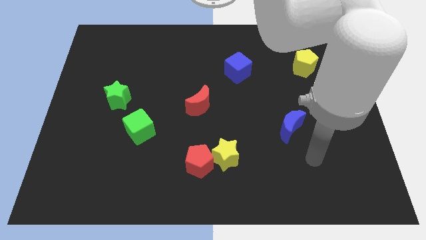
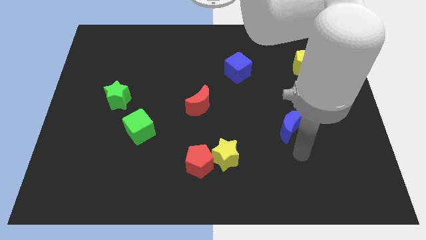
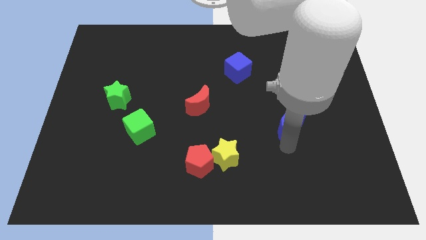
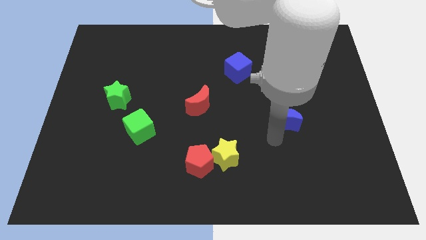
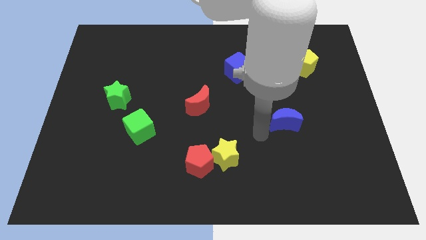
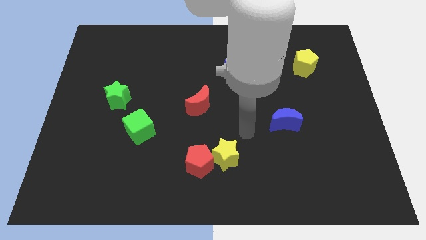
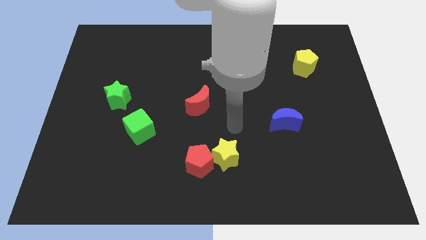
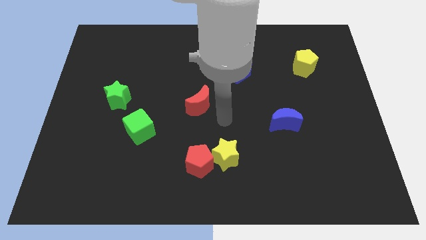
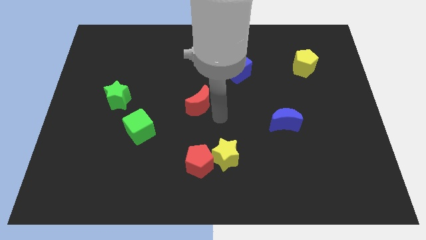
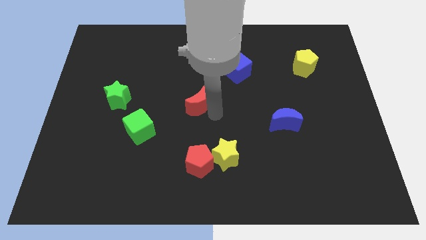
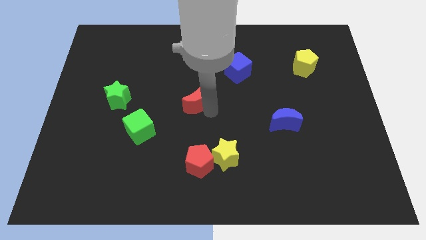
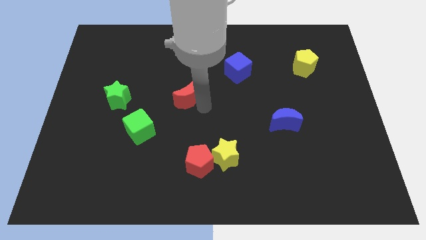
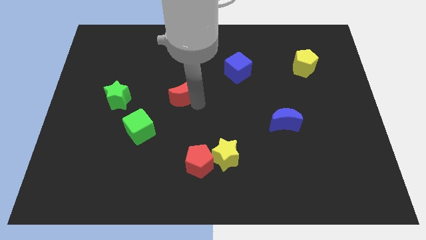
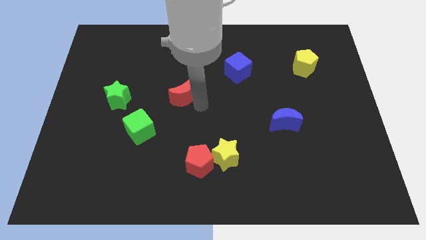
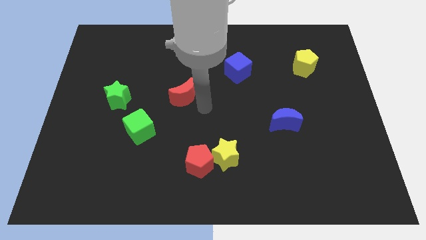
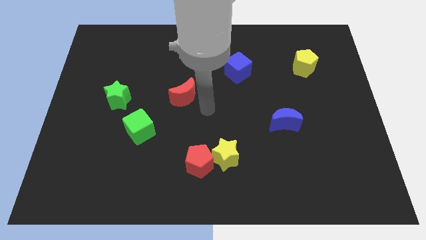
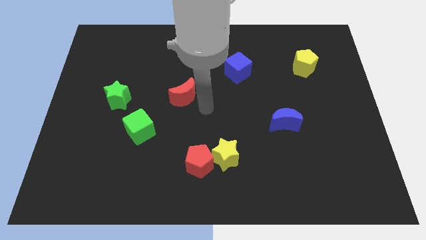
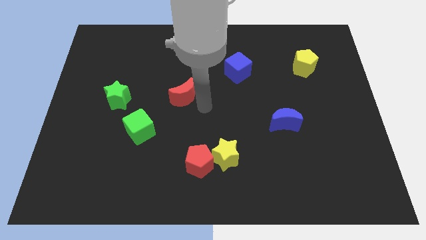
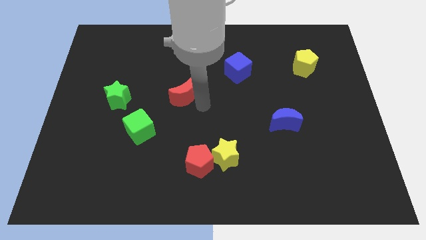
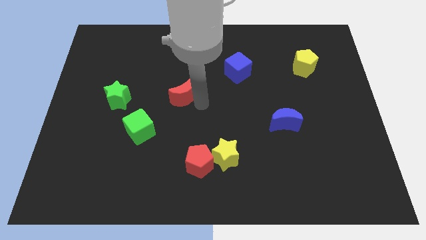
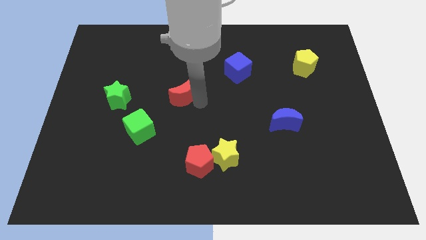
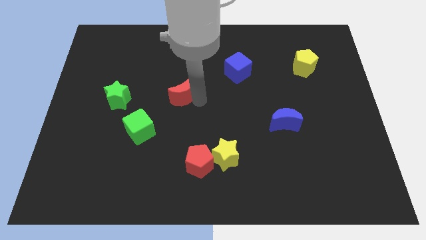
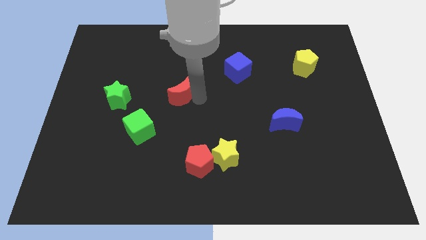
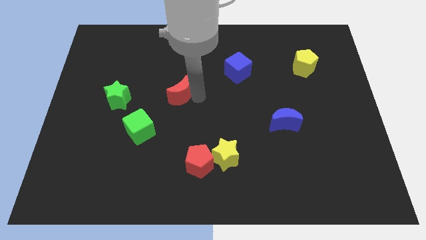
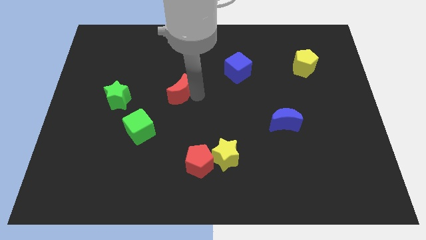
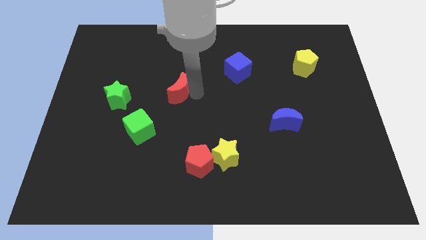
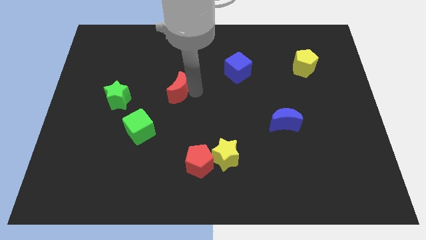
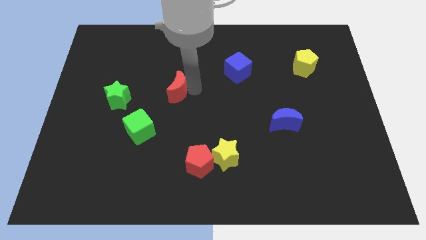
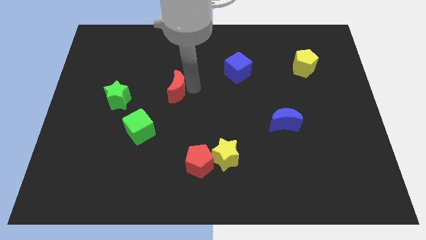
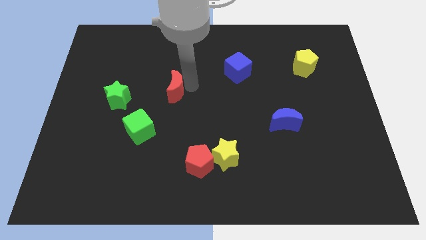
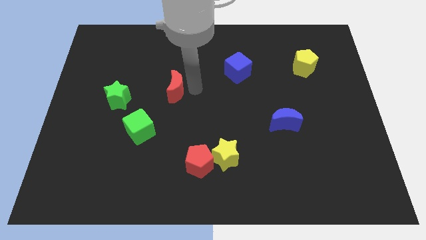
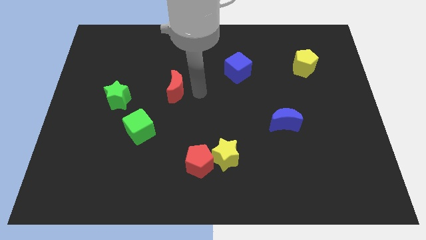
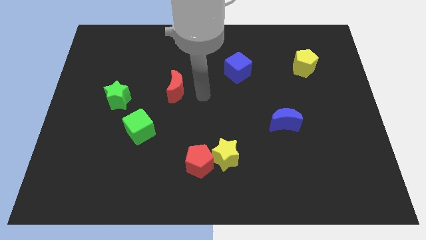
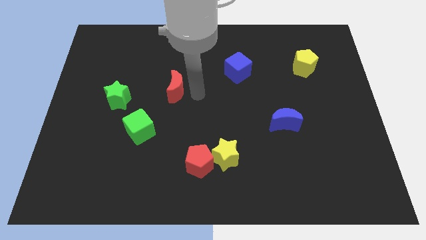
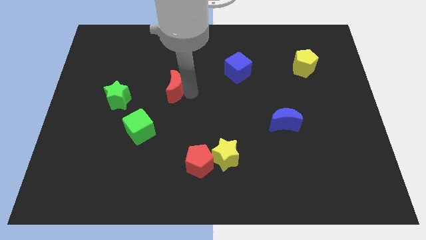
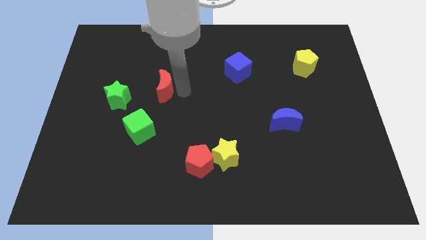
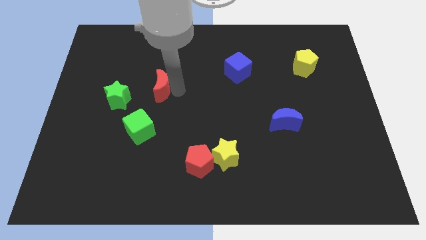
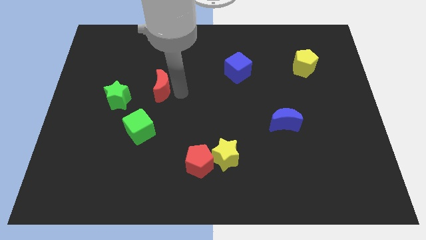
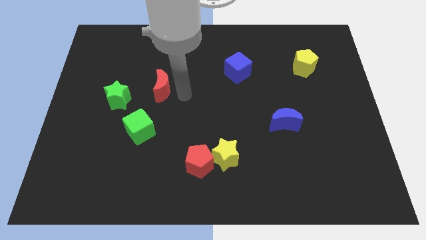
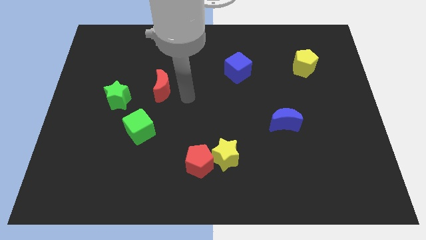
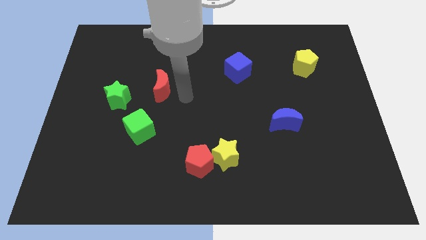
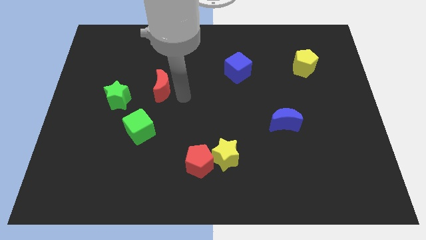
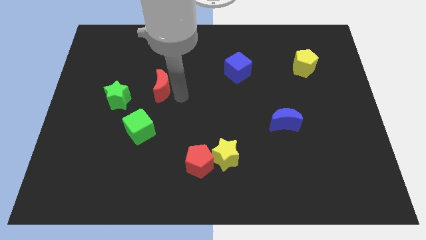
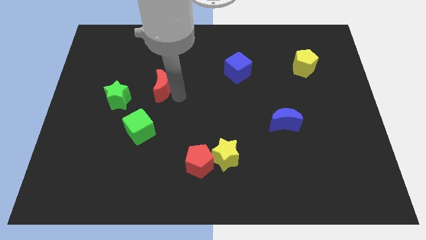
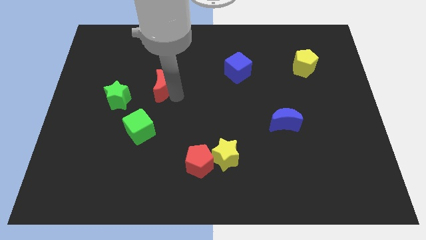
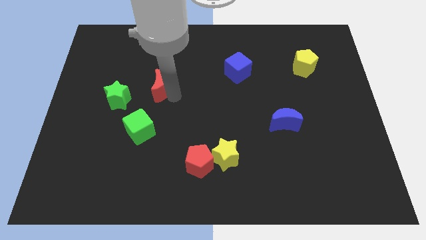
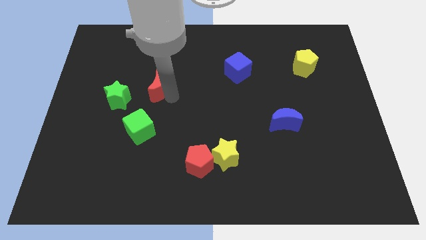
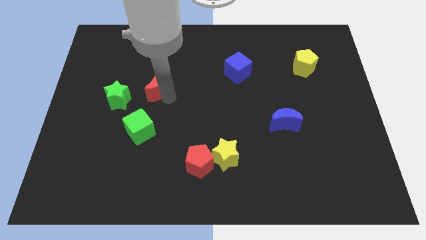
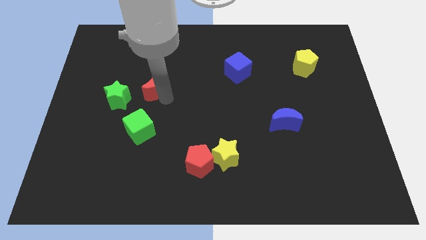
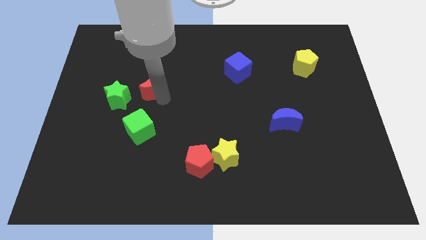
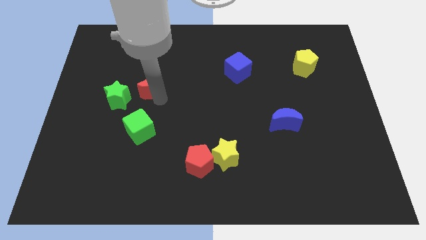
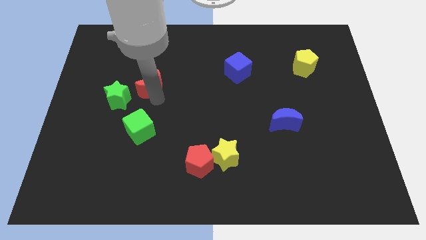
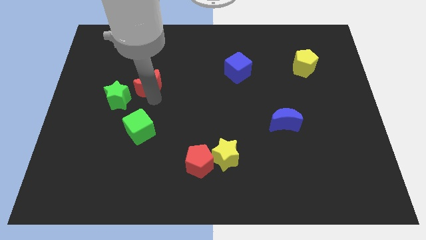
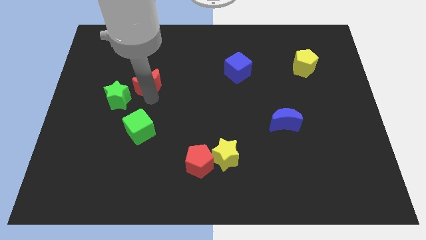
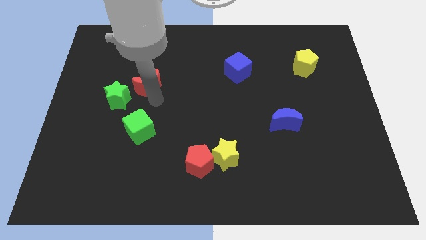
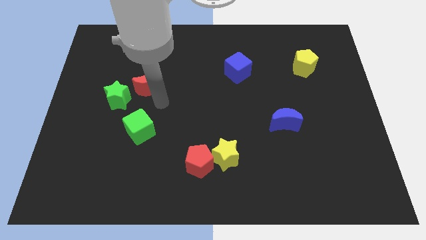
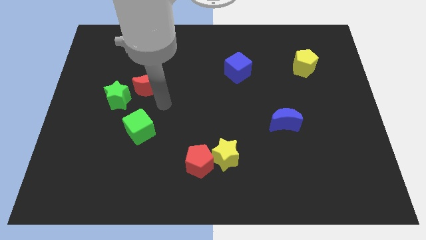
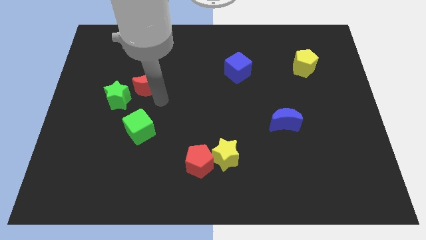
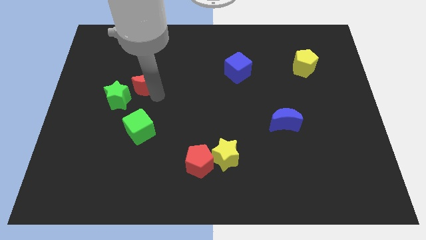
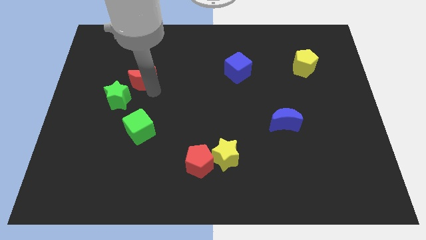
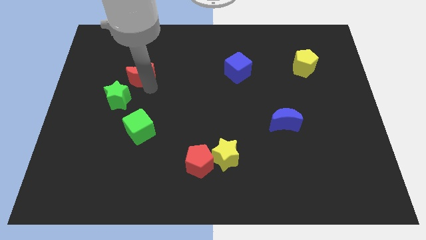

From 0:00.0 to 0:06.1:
push the red moon to the top of the green star

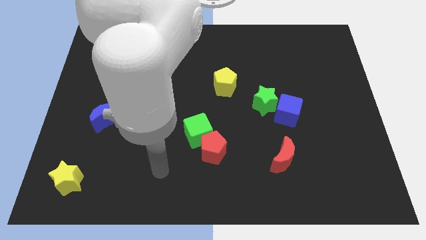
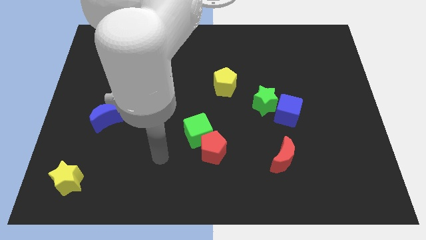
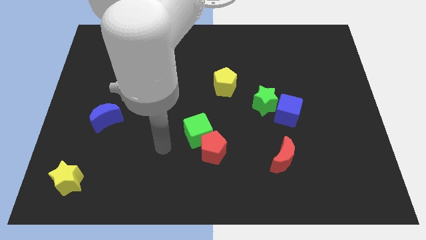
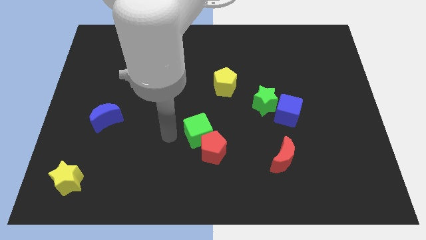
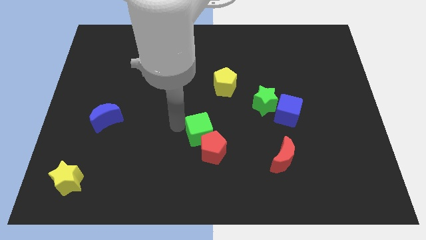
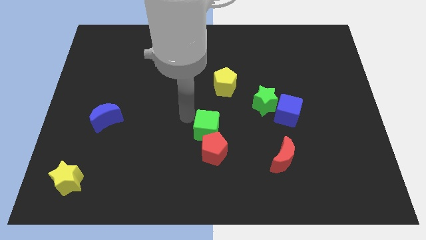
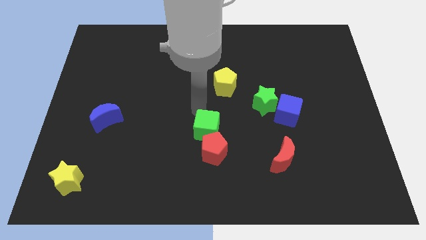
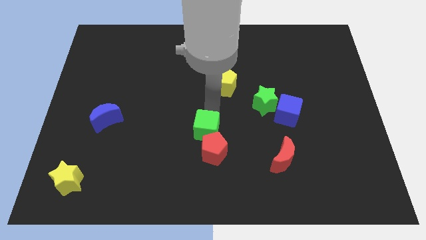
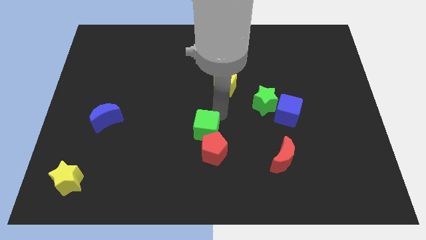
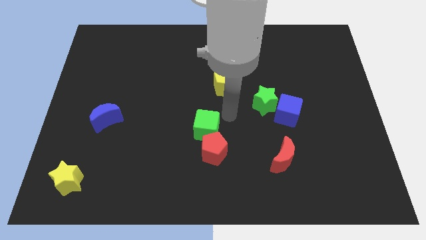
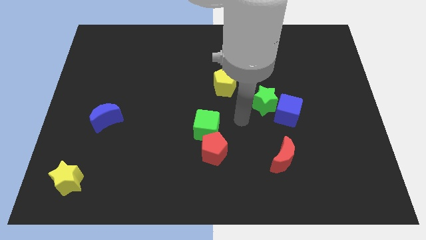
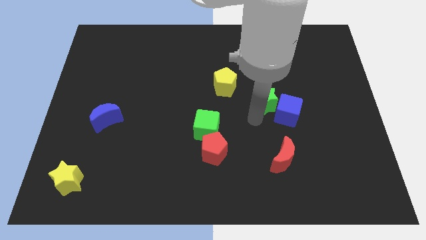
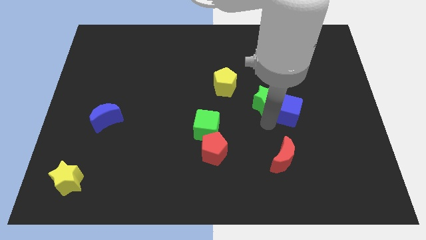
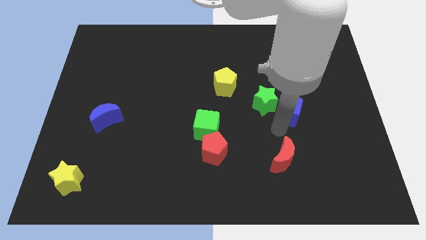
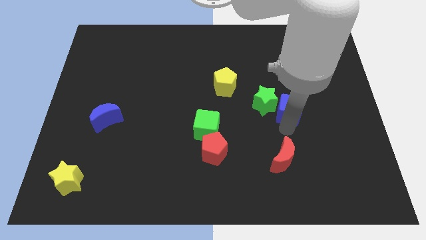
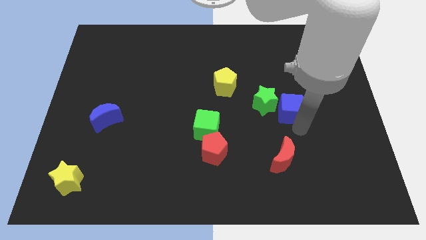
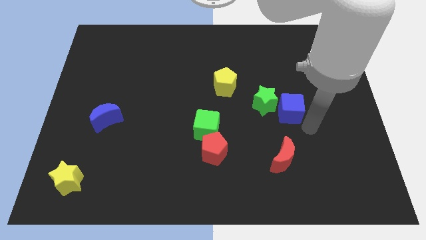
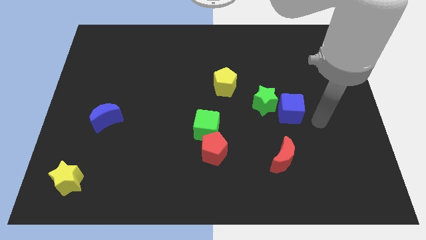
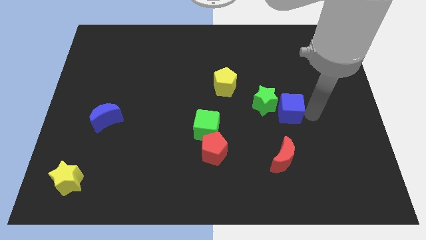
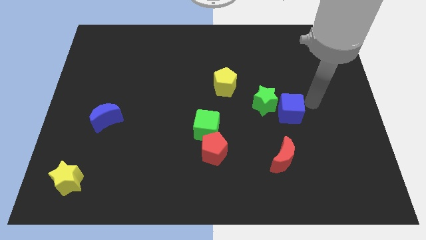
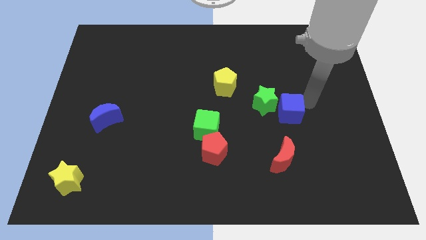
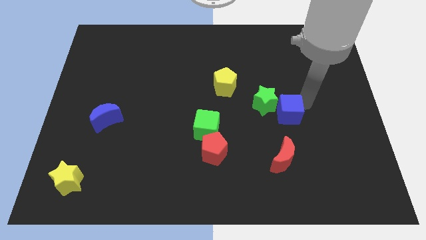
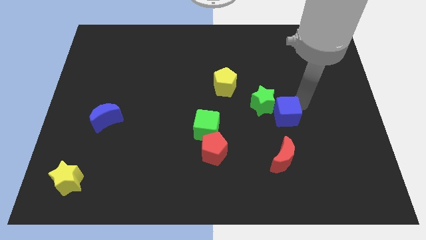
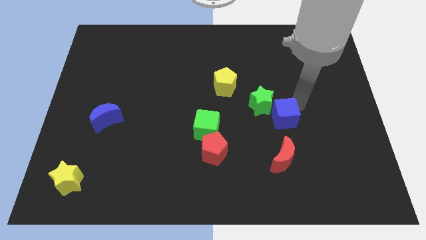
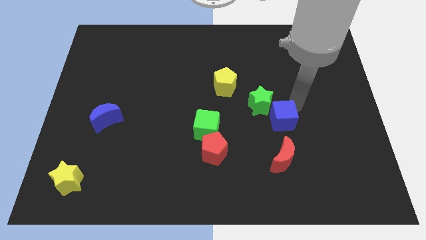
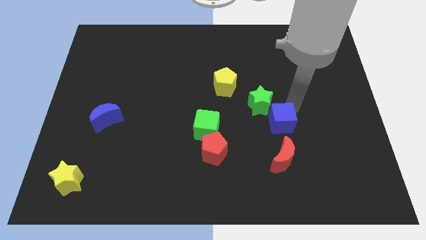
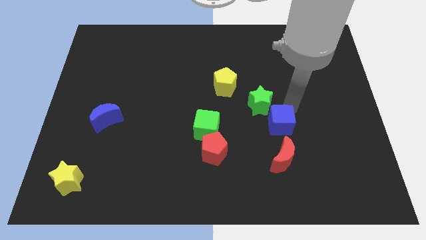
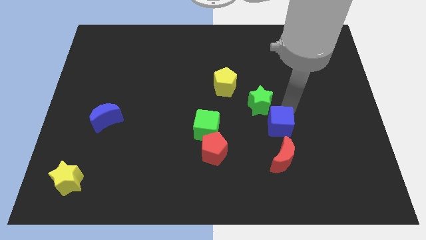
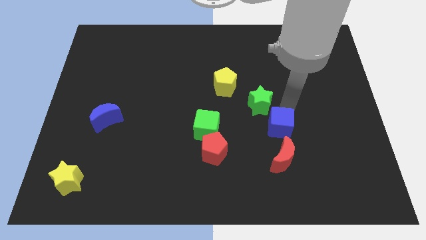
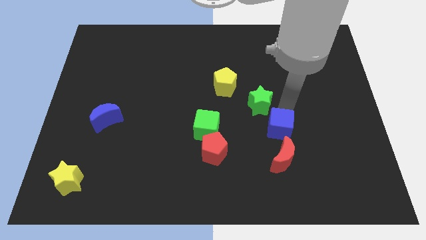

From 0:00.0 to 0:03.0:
move the blue cube to the right side of the green cube
